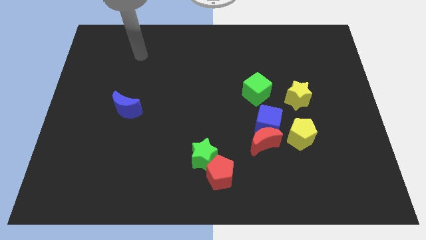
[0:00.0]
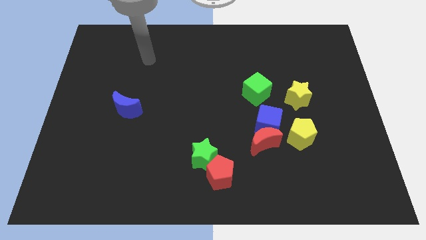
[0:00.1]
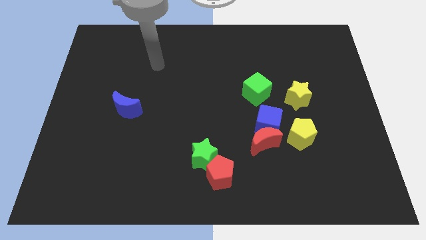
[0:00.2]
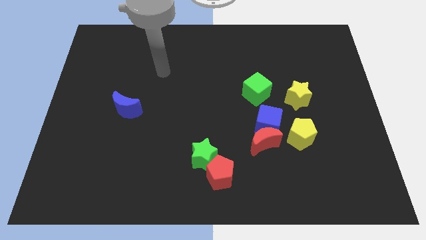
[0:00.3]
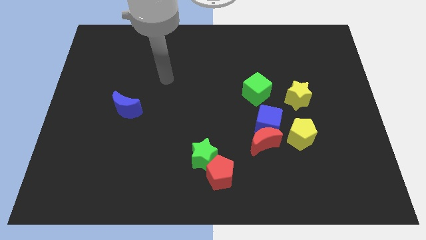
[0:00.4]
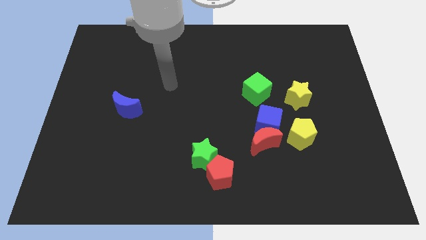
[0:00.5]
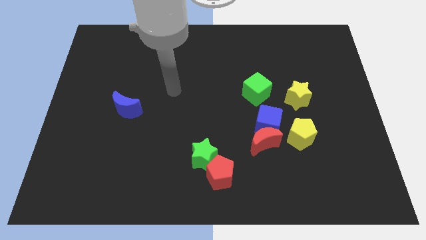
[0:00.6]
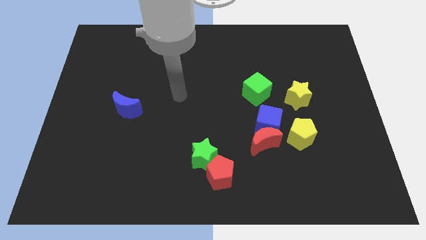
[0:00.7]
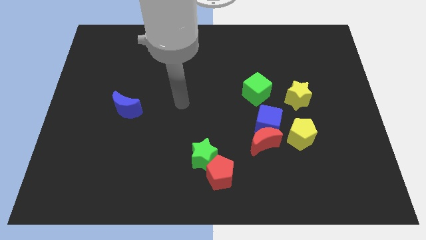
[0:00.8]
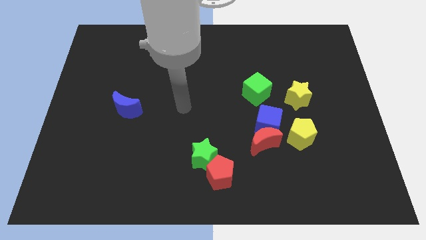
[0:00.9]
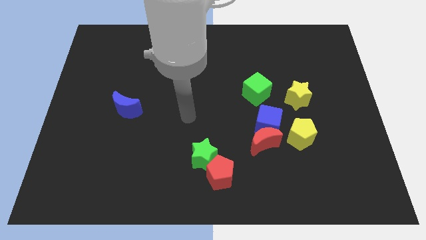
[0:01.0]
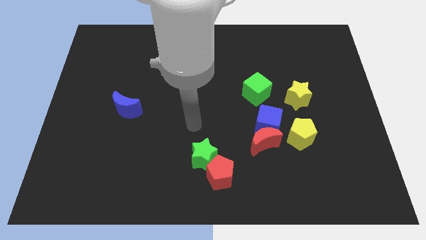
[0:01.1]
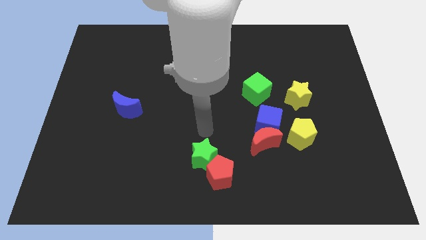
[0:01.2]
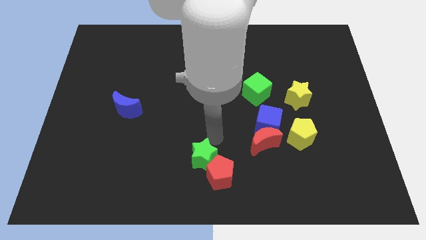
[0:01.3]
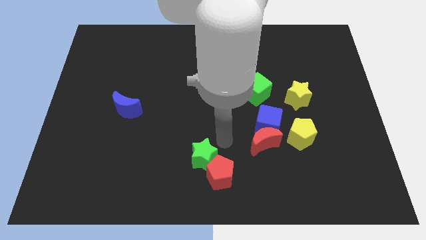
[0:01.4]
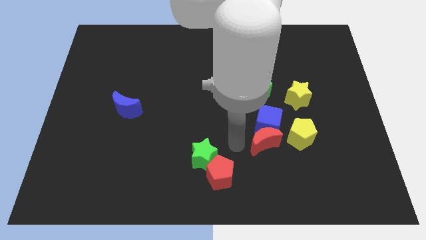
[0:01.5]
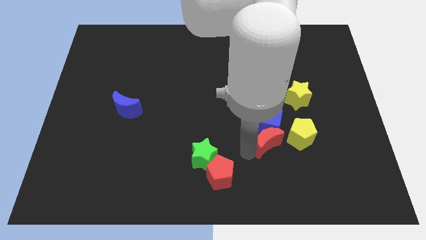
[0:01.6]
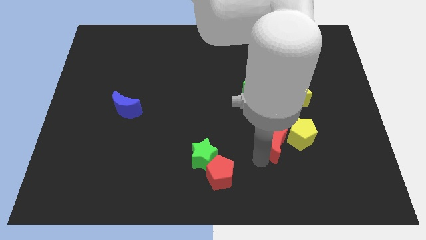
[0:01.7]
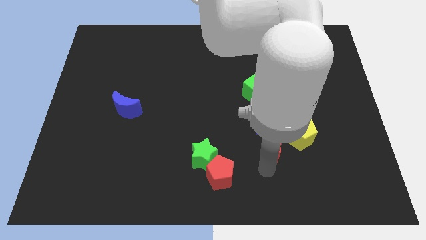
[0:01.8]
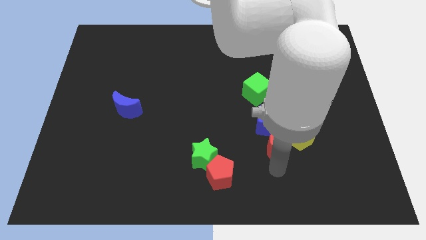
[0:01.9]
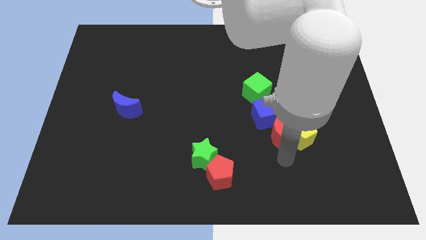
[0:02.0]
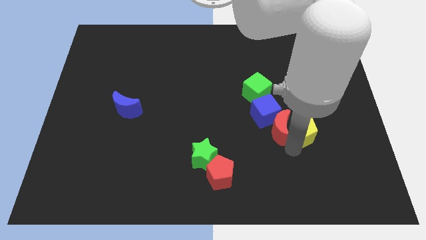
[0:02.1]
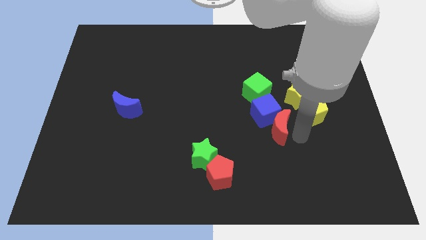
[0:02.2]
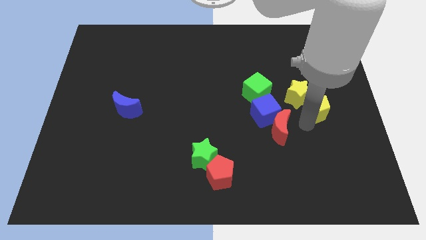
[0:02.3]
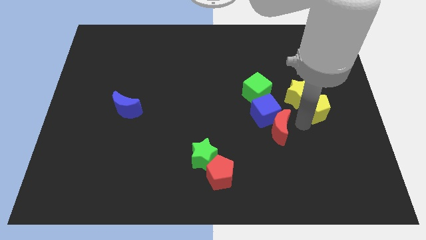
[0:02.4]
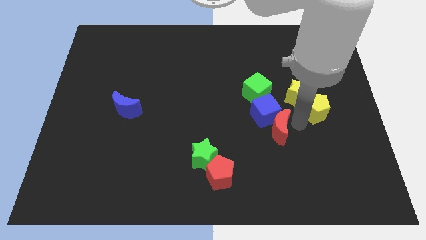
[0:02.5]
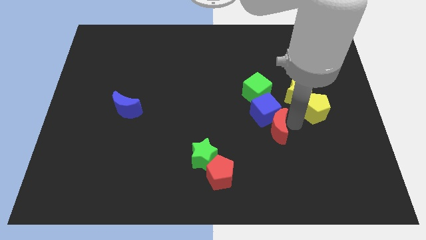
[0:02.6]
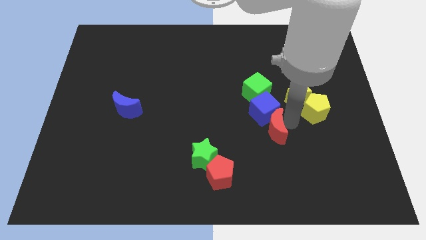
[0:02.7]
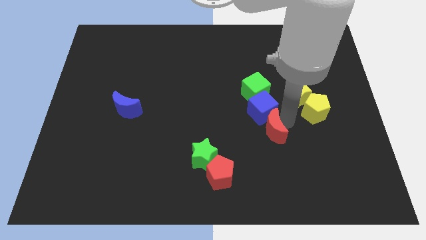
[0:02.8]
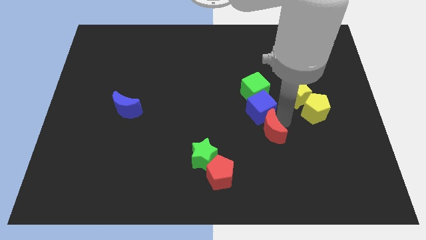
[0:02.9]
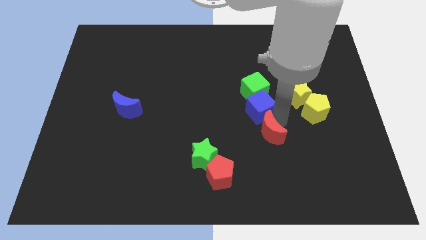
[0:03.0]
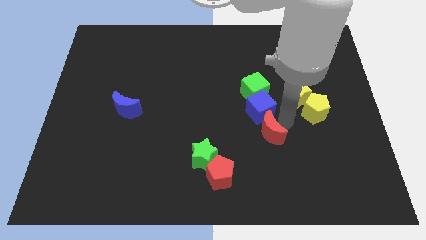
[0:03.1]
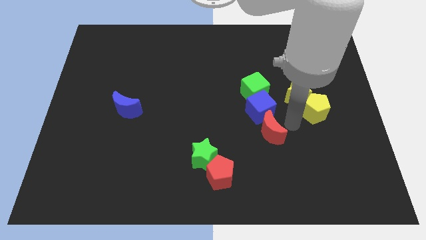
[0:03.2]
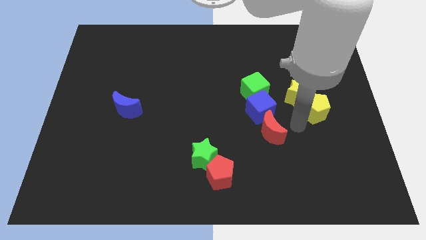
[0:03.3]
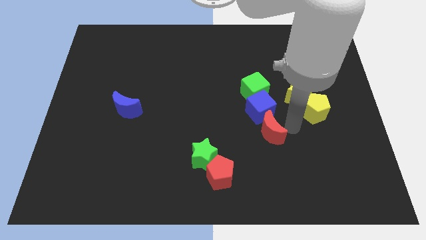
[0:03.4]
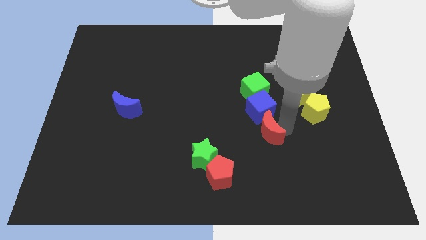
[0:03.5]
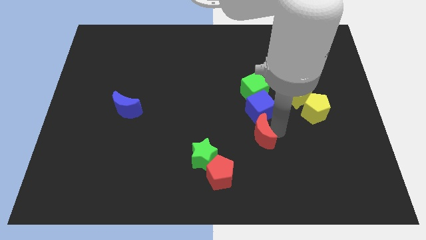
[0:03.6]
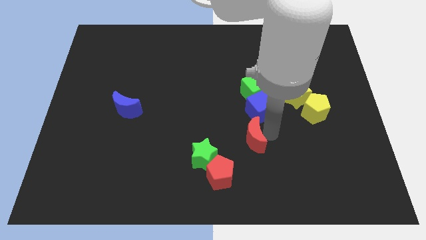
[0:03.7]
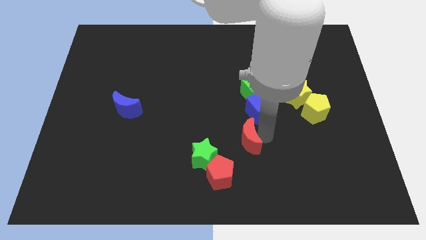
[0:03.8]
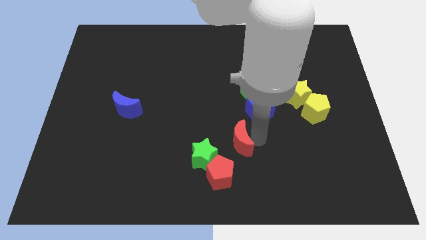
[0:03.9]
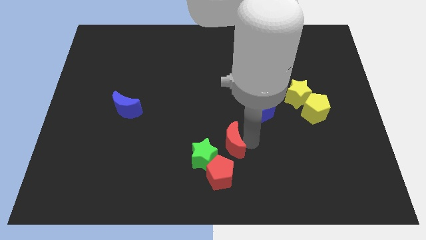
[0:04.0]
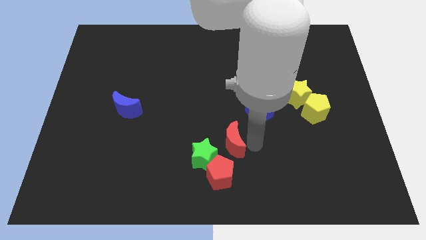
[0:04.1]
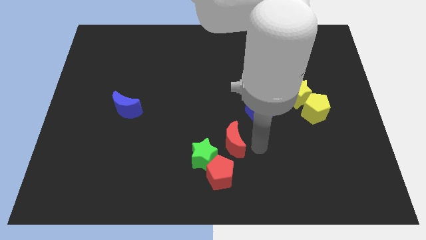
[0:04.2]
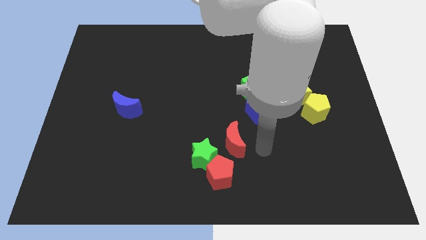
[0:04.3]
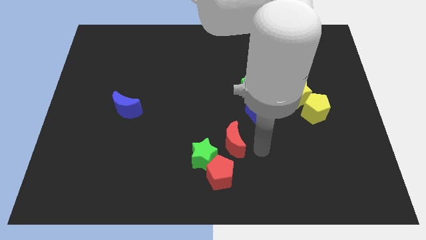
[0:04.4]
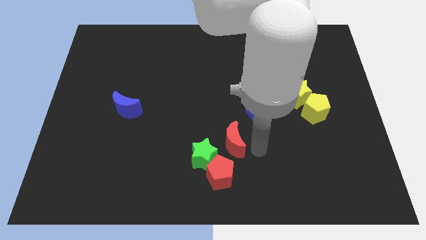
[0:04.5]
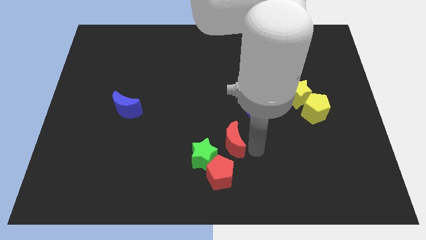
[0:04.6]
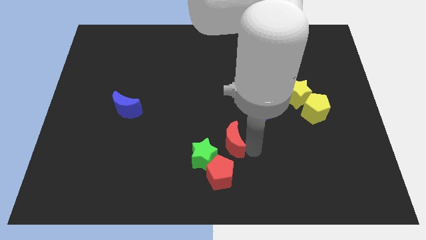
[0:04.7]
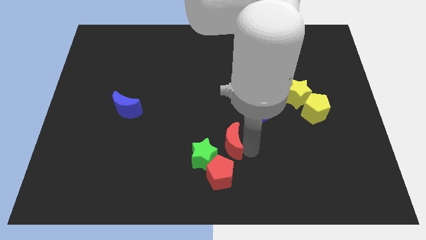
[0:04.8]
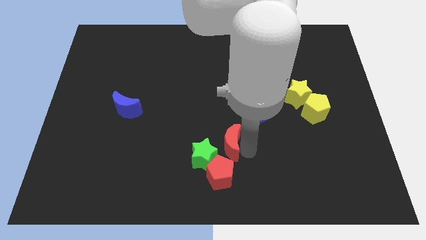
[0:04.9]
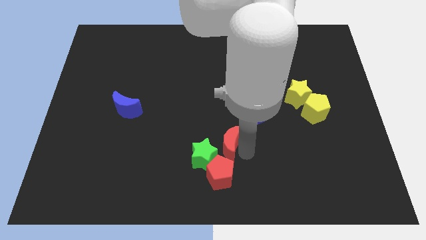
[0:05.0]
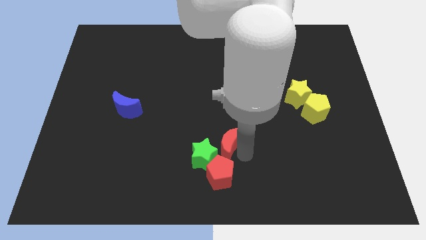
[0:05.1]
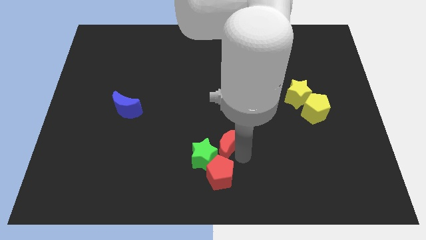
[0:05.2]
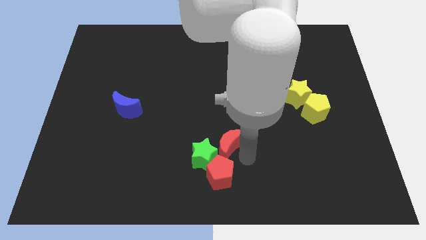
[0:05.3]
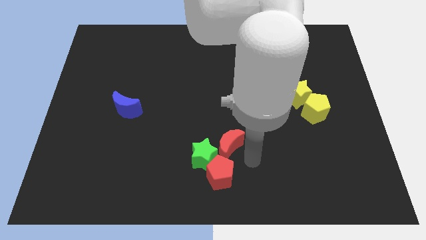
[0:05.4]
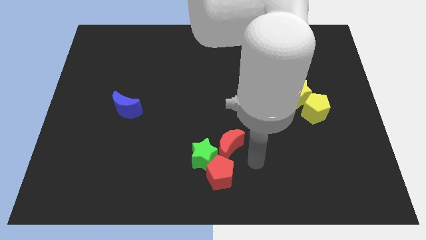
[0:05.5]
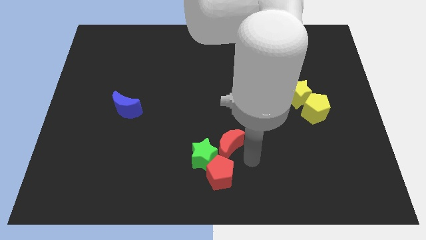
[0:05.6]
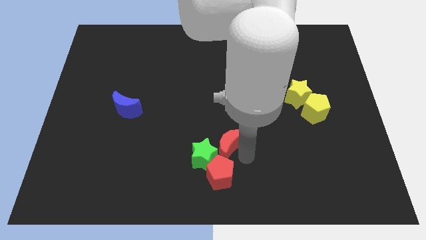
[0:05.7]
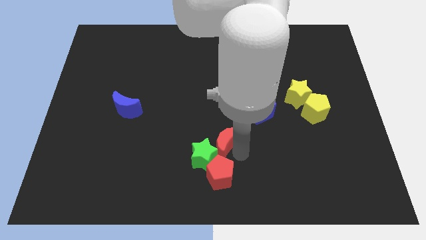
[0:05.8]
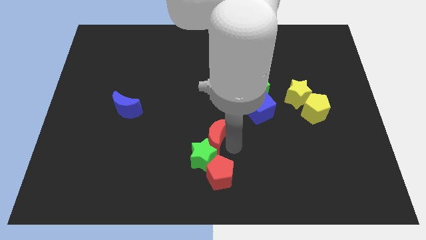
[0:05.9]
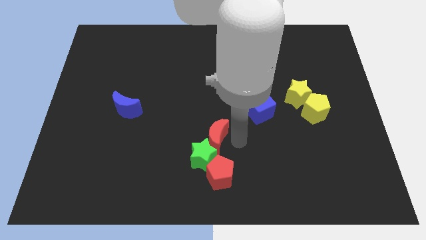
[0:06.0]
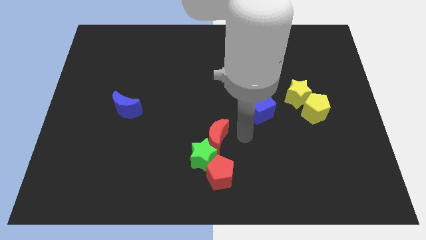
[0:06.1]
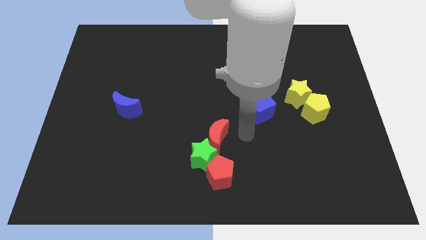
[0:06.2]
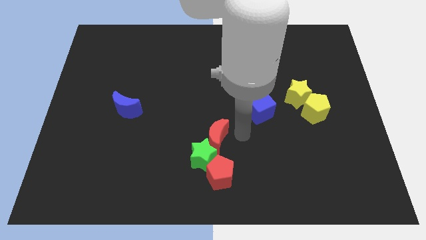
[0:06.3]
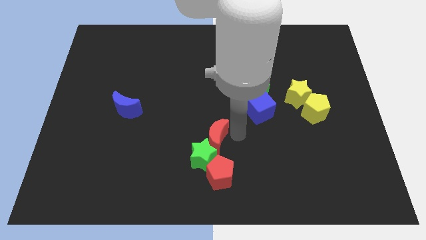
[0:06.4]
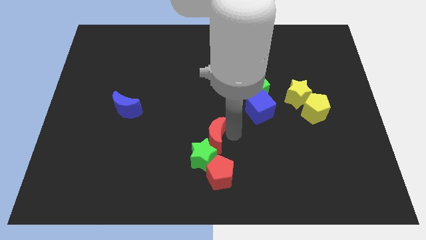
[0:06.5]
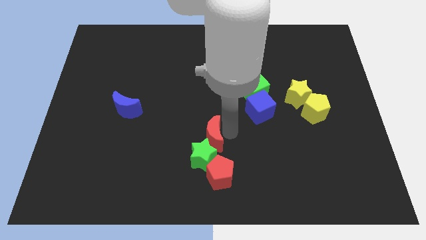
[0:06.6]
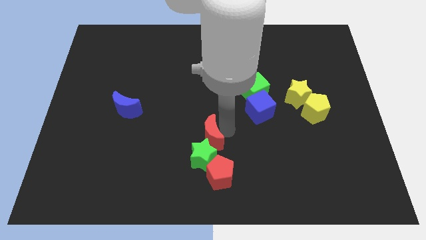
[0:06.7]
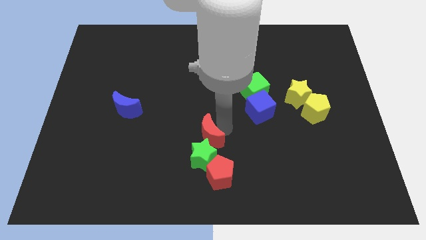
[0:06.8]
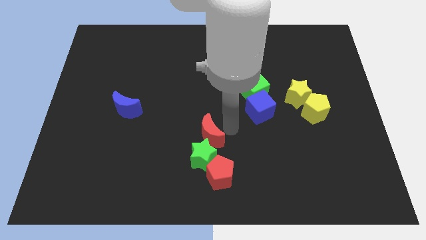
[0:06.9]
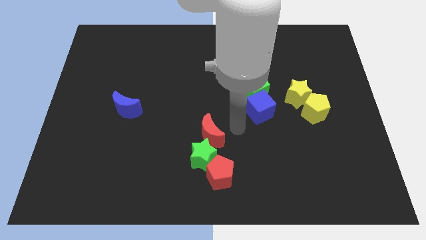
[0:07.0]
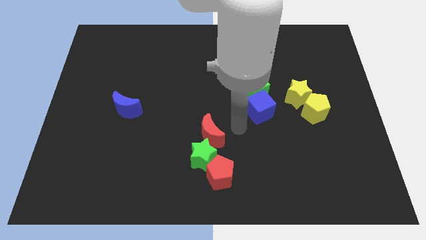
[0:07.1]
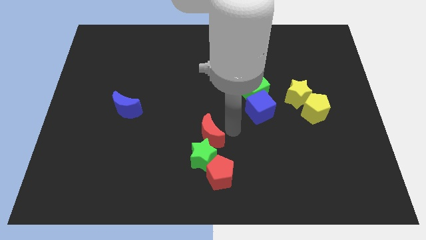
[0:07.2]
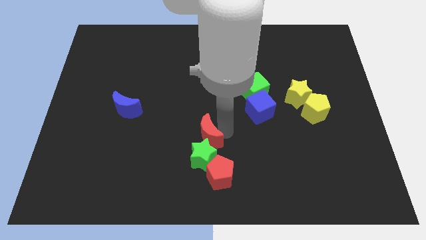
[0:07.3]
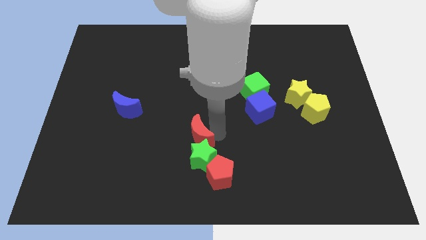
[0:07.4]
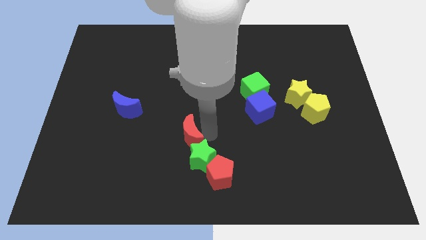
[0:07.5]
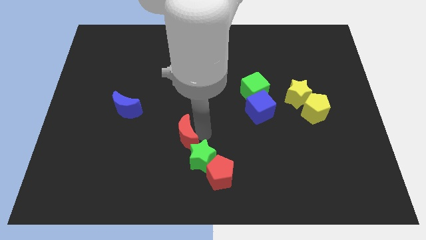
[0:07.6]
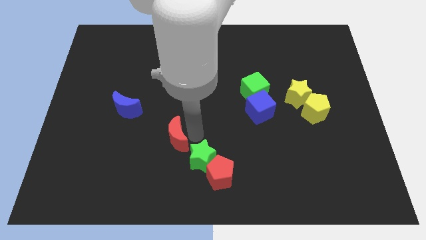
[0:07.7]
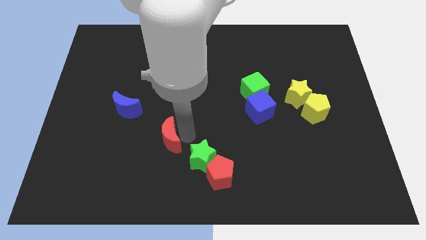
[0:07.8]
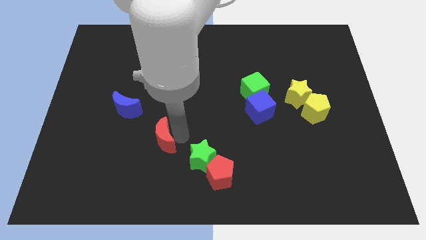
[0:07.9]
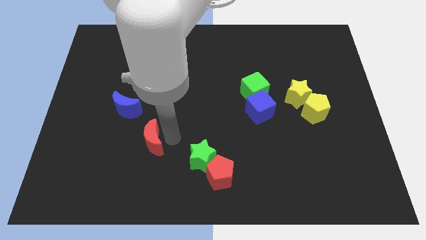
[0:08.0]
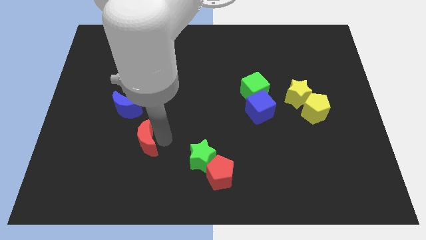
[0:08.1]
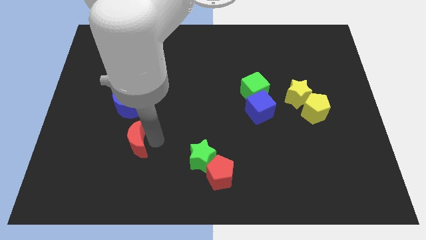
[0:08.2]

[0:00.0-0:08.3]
put the red moon to the bottom side of the blue moon
